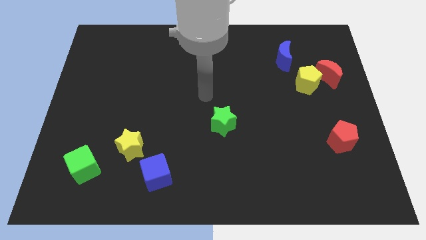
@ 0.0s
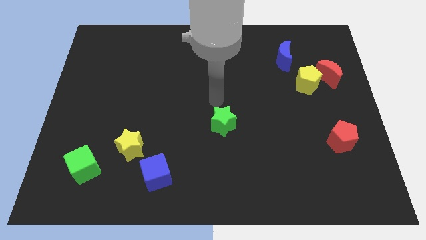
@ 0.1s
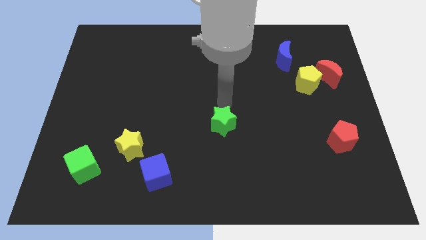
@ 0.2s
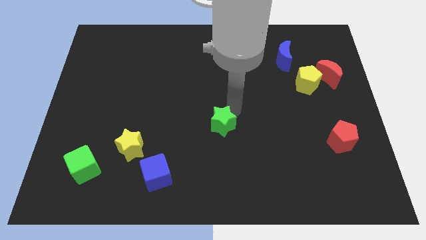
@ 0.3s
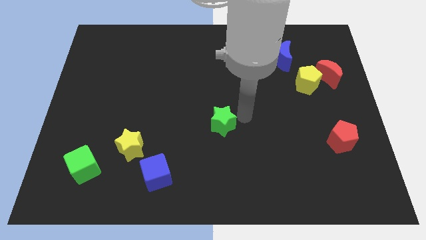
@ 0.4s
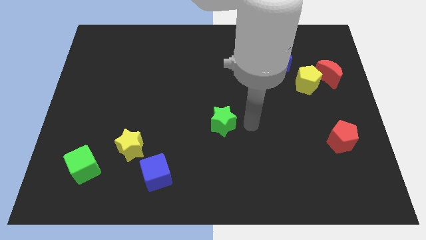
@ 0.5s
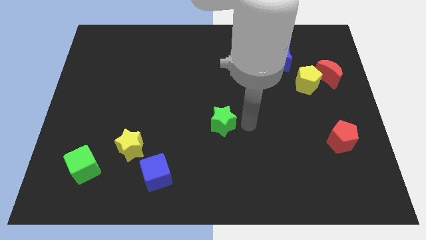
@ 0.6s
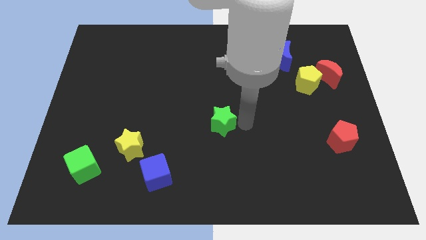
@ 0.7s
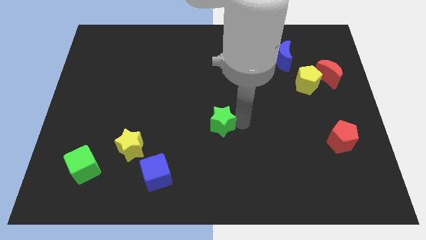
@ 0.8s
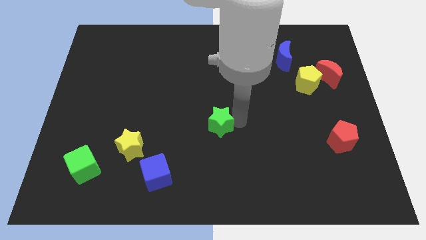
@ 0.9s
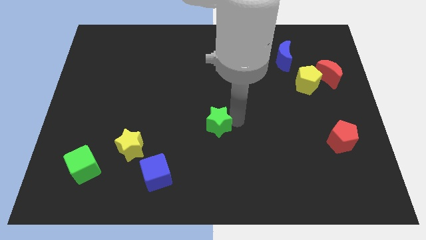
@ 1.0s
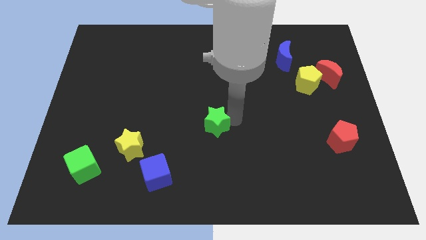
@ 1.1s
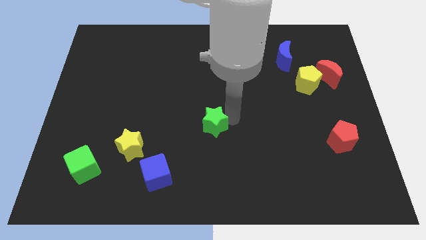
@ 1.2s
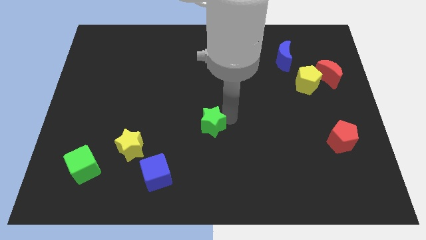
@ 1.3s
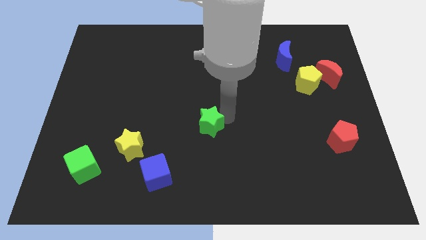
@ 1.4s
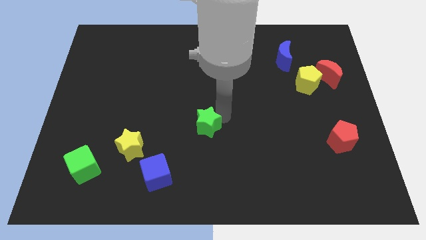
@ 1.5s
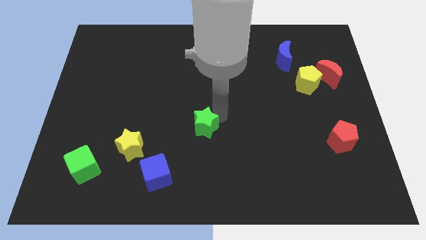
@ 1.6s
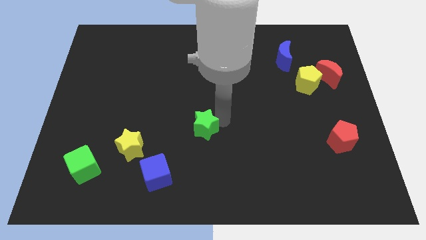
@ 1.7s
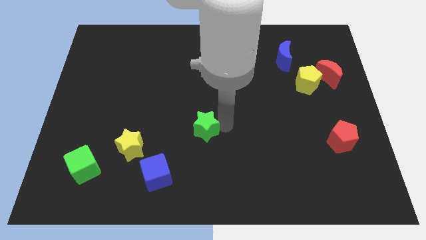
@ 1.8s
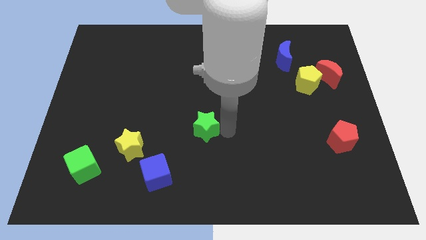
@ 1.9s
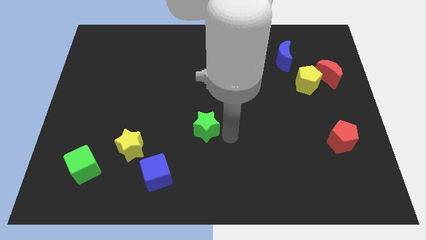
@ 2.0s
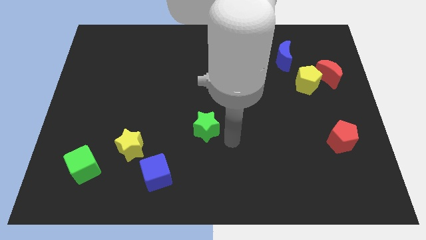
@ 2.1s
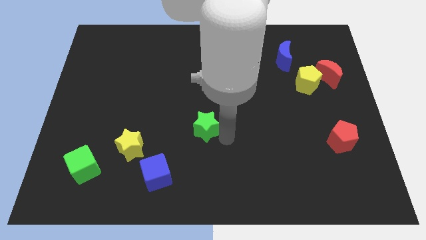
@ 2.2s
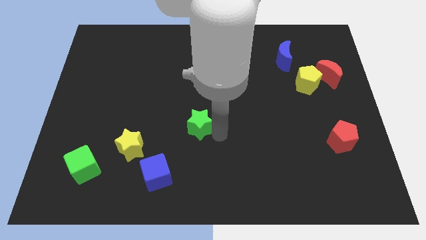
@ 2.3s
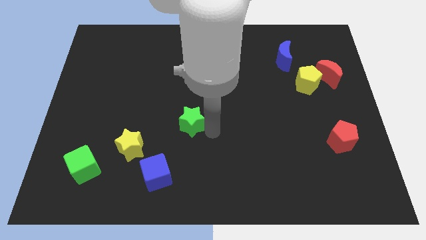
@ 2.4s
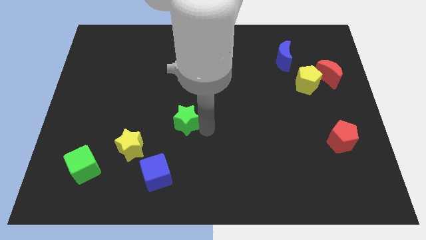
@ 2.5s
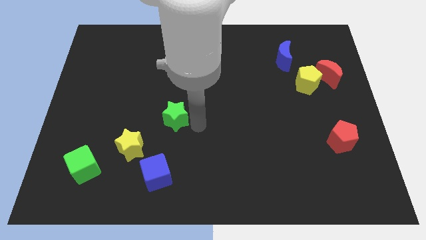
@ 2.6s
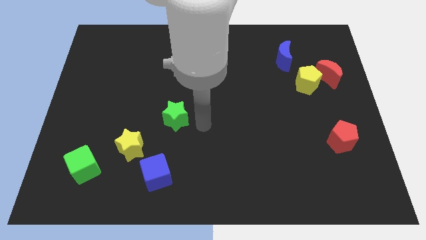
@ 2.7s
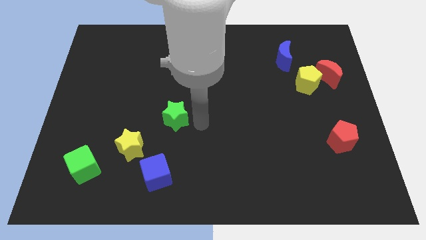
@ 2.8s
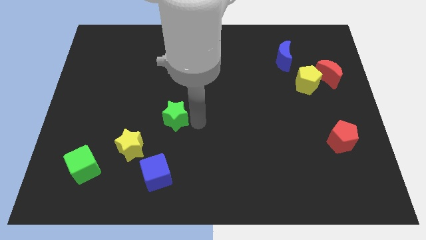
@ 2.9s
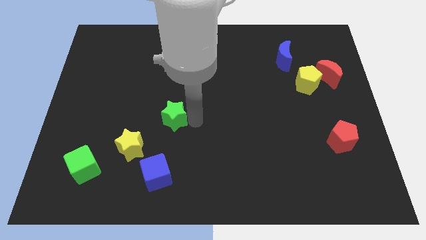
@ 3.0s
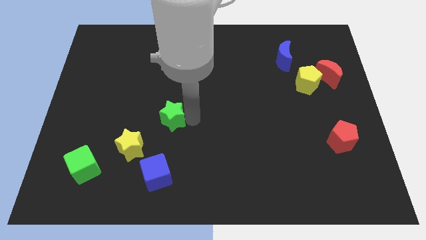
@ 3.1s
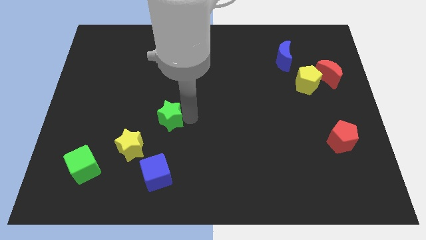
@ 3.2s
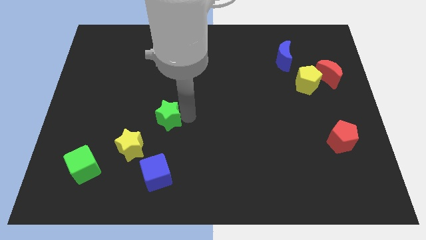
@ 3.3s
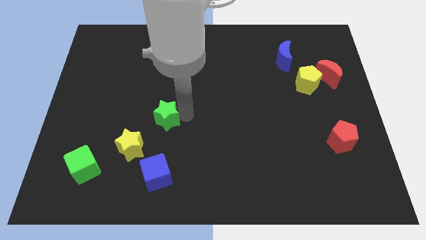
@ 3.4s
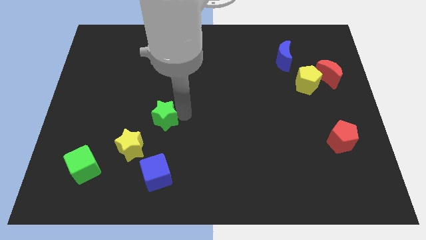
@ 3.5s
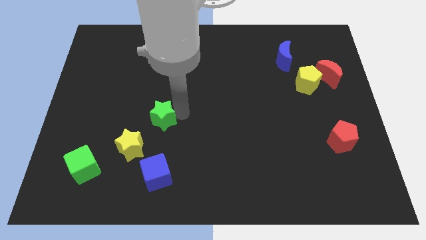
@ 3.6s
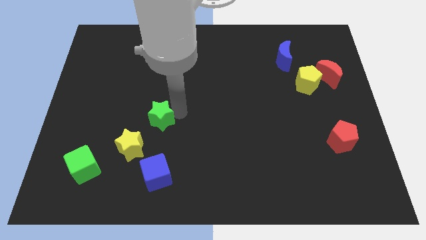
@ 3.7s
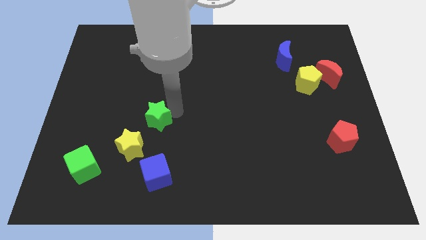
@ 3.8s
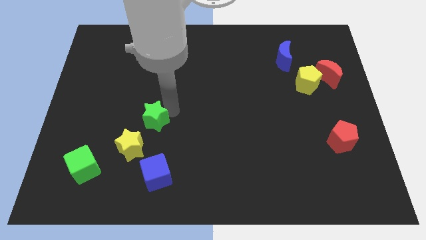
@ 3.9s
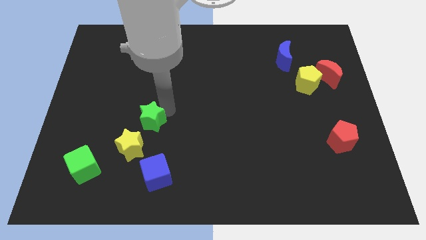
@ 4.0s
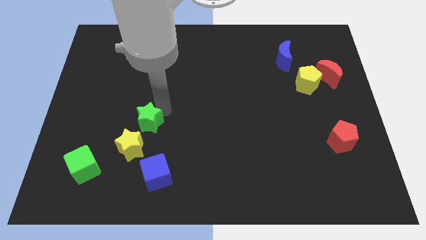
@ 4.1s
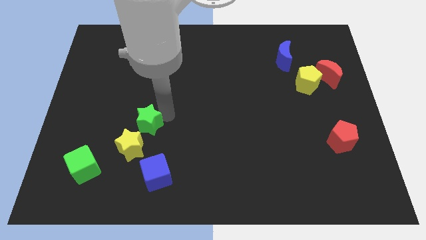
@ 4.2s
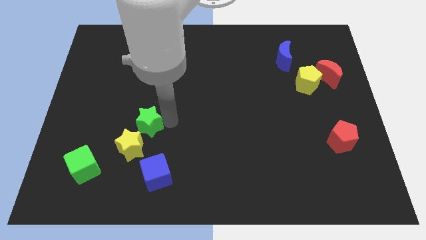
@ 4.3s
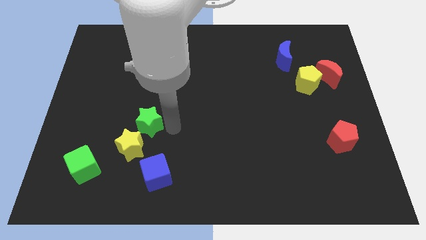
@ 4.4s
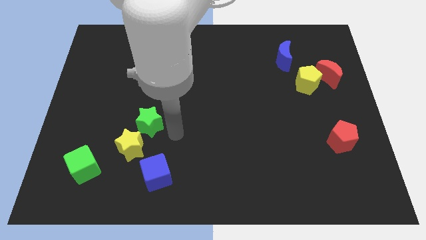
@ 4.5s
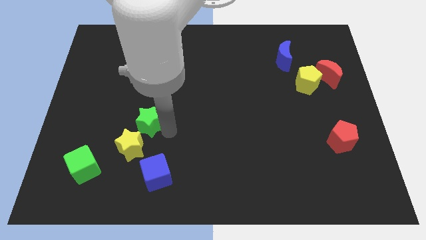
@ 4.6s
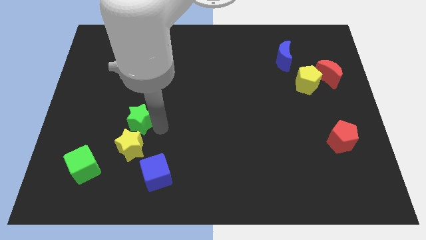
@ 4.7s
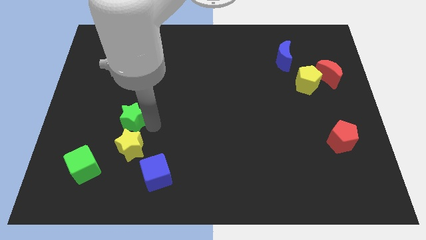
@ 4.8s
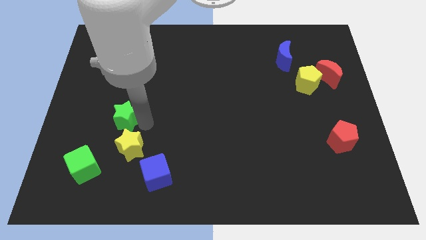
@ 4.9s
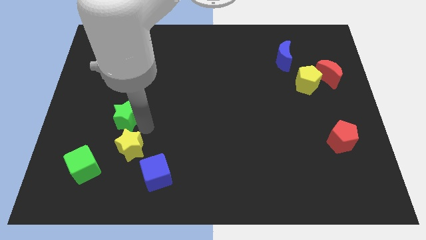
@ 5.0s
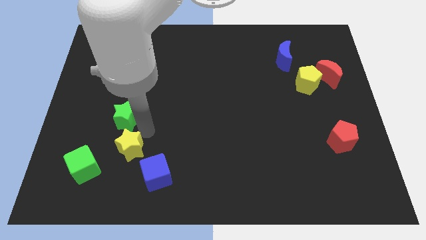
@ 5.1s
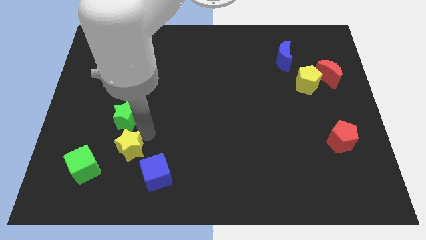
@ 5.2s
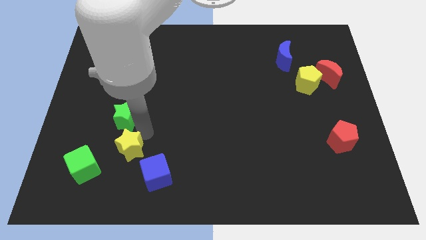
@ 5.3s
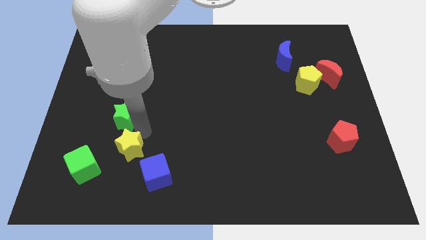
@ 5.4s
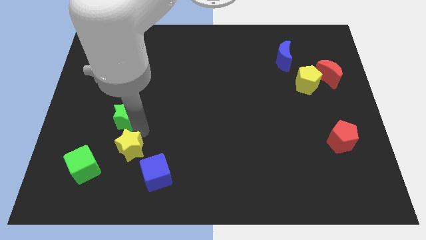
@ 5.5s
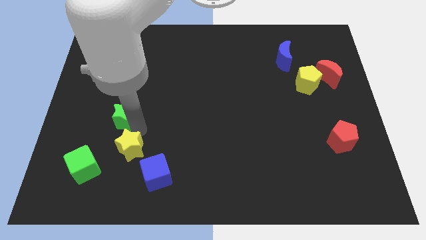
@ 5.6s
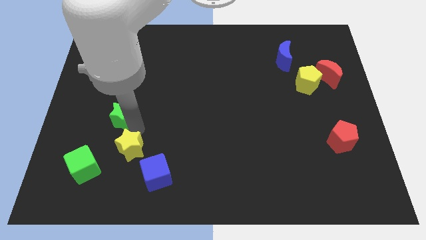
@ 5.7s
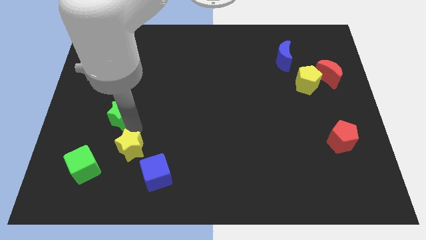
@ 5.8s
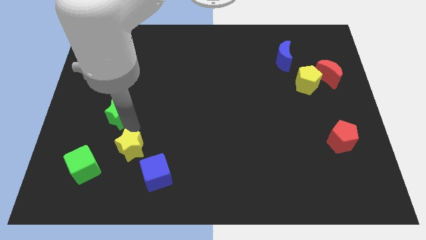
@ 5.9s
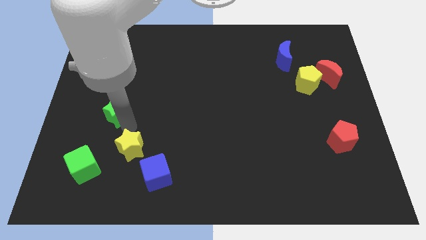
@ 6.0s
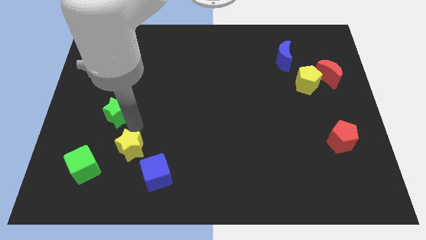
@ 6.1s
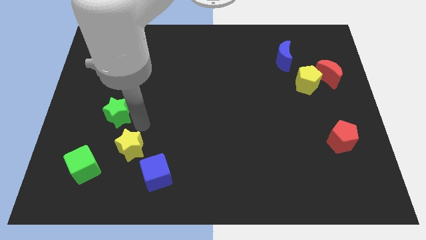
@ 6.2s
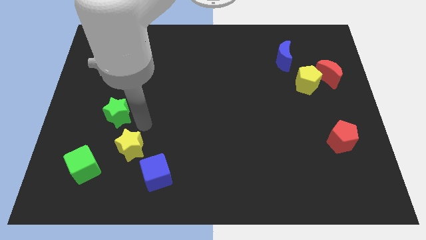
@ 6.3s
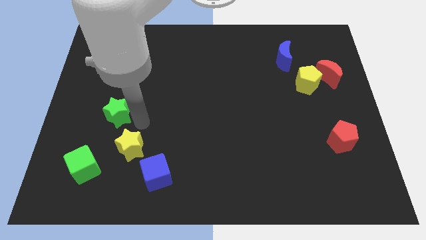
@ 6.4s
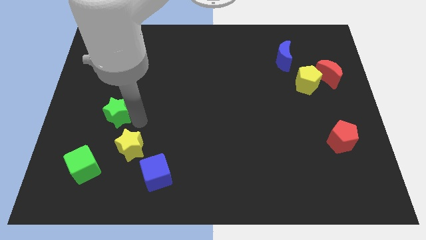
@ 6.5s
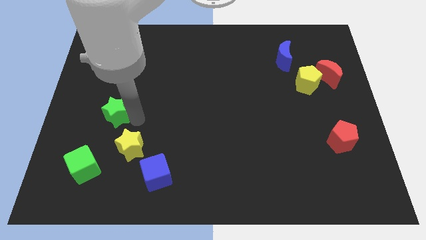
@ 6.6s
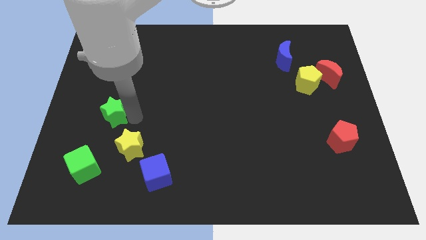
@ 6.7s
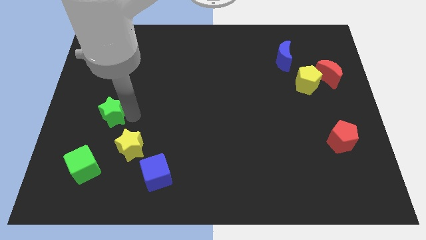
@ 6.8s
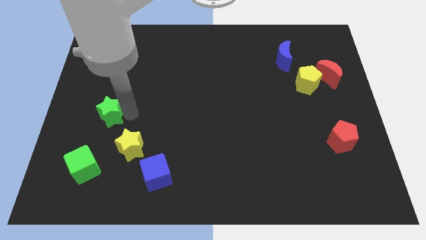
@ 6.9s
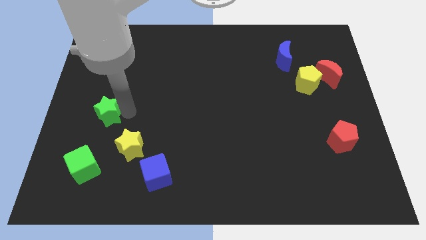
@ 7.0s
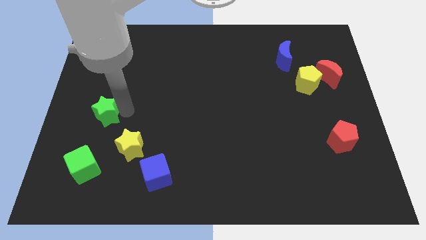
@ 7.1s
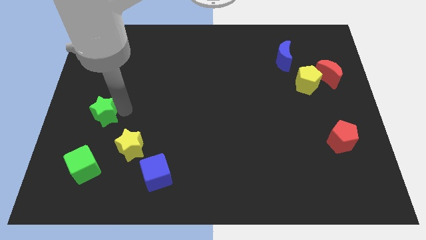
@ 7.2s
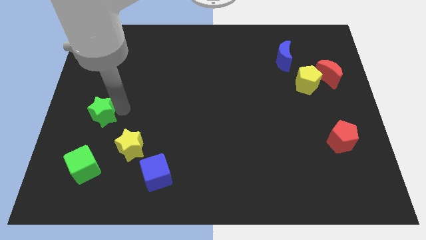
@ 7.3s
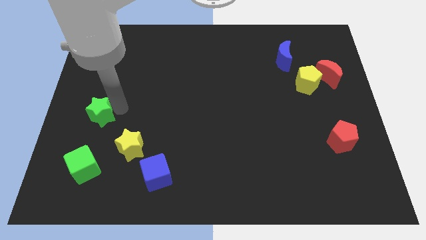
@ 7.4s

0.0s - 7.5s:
put the green star to the center left
